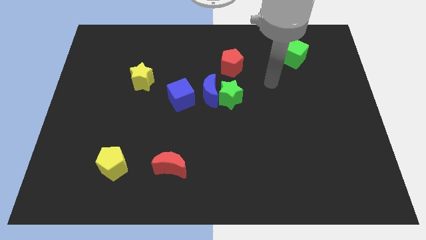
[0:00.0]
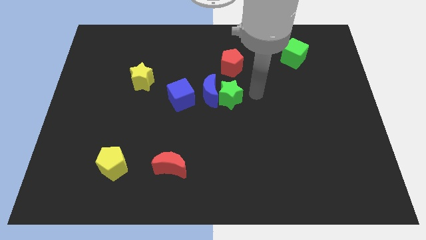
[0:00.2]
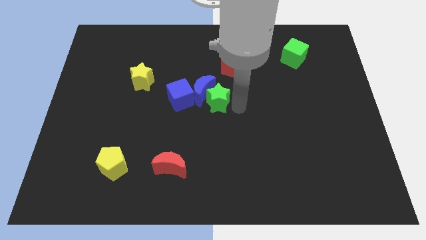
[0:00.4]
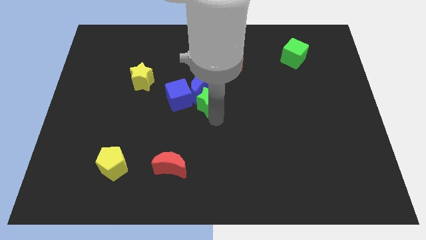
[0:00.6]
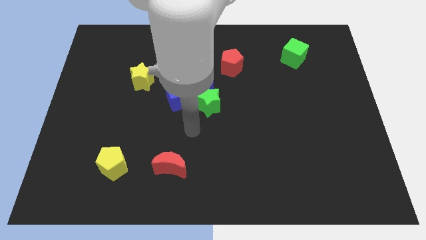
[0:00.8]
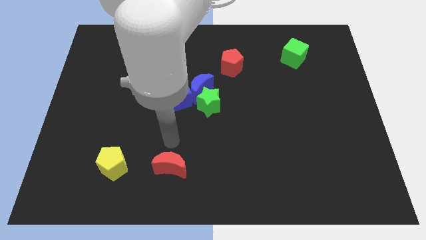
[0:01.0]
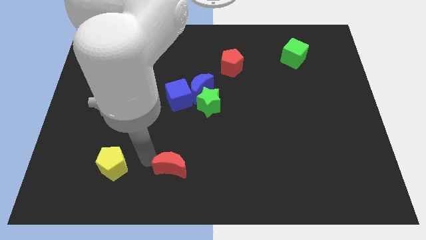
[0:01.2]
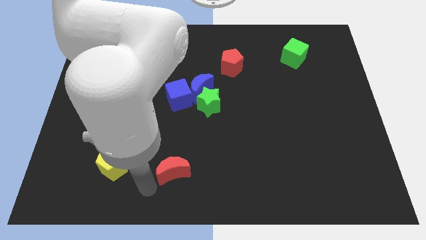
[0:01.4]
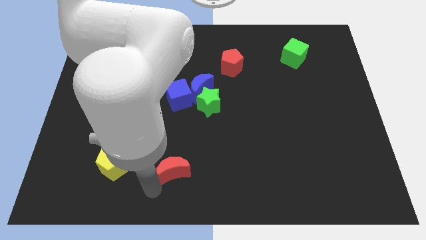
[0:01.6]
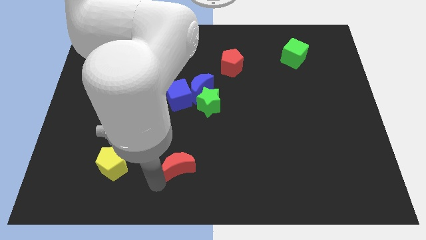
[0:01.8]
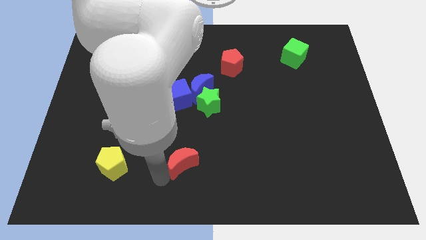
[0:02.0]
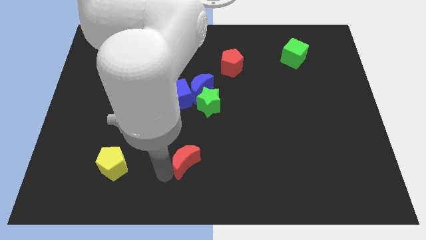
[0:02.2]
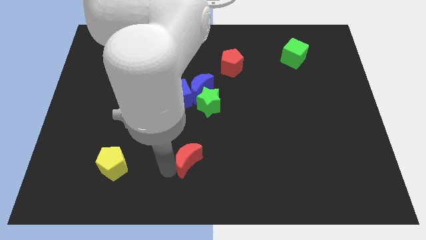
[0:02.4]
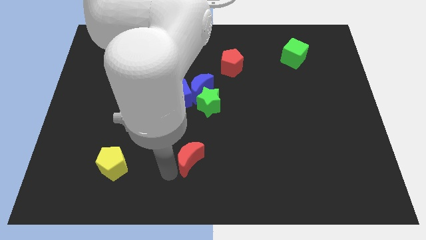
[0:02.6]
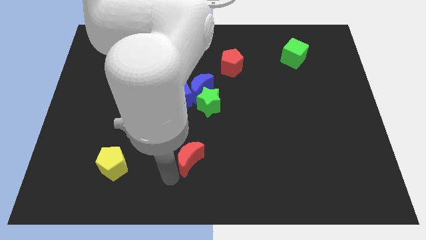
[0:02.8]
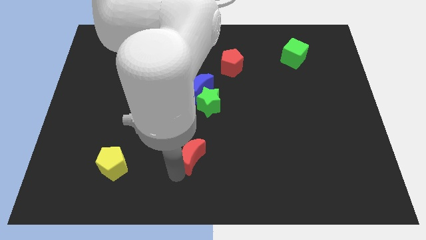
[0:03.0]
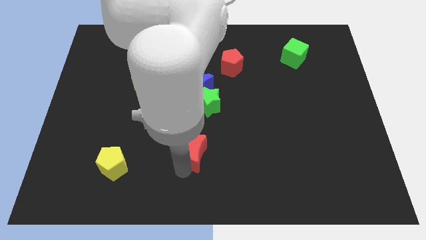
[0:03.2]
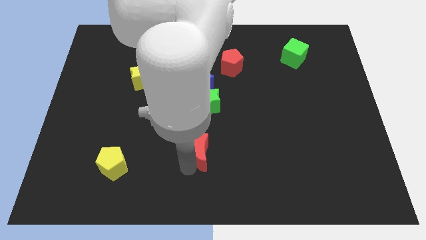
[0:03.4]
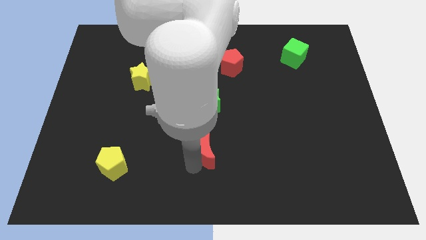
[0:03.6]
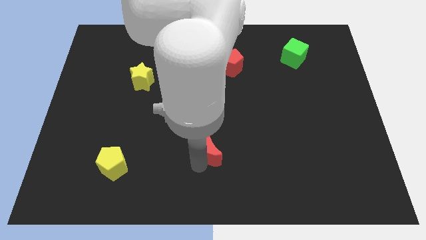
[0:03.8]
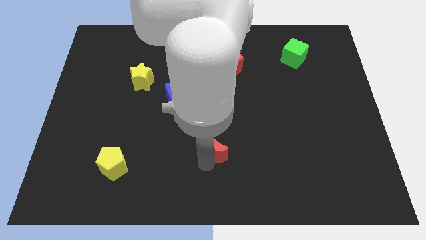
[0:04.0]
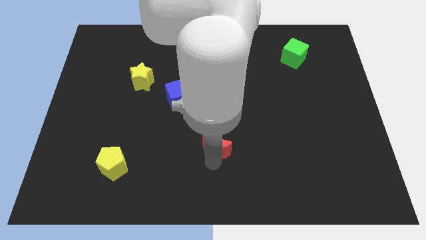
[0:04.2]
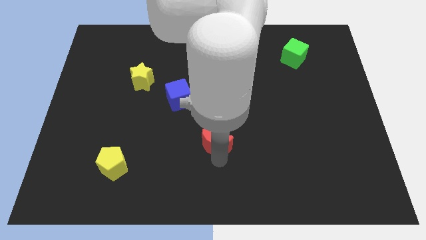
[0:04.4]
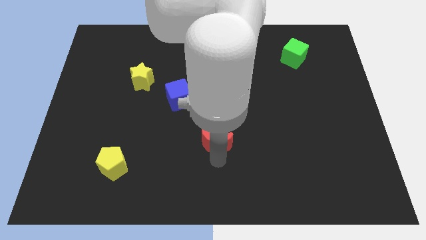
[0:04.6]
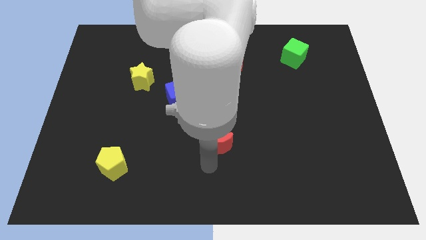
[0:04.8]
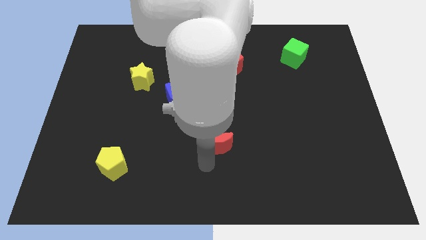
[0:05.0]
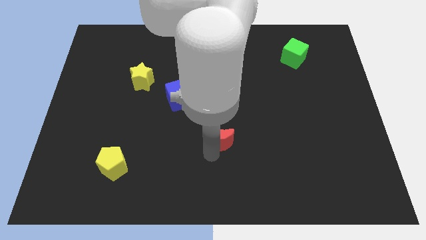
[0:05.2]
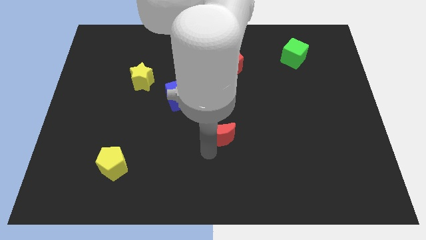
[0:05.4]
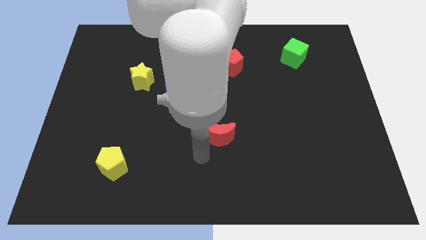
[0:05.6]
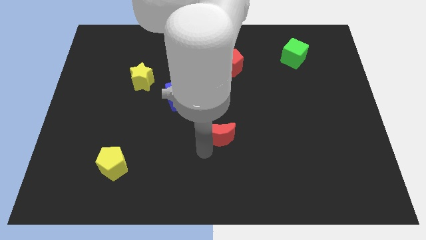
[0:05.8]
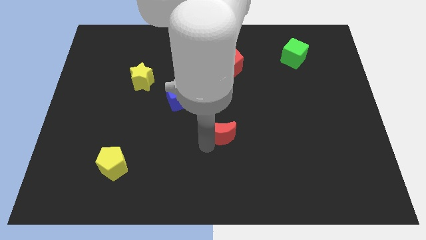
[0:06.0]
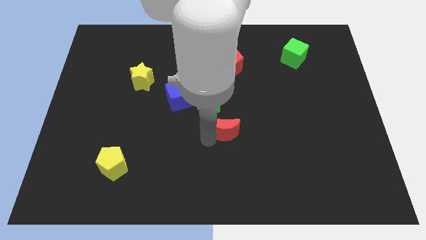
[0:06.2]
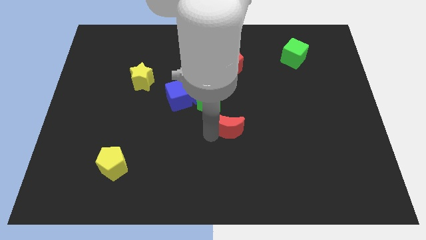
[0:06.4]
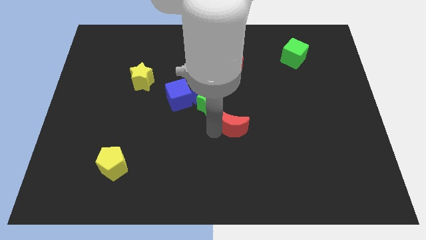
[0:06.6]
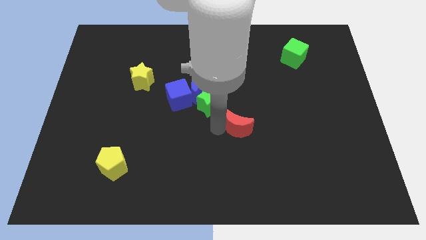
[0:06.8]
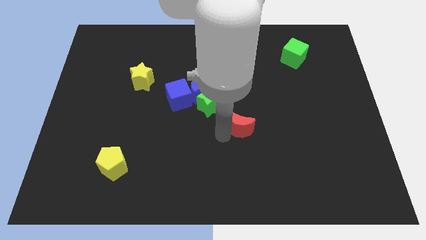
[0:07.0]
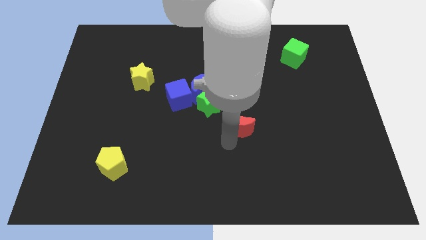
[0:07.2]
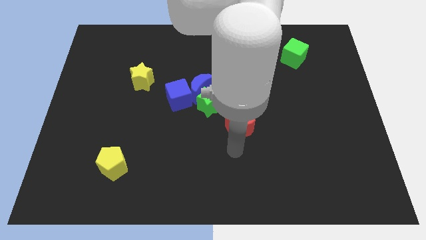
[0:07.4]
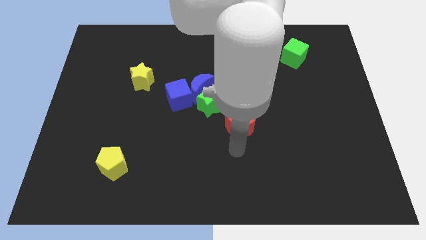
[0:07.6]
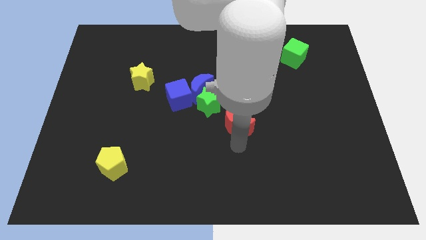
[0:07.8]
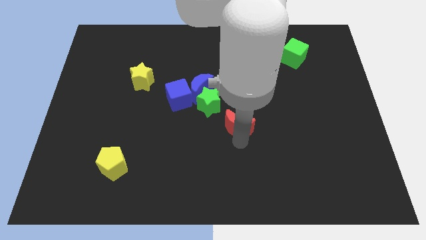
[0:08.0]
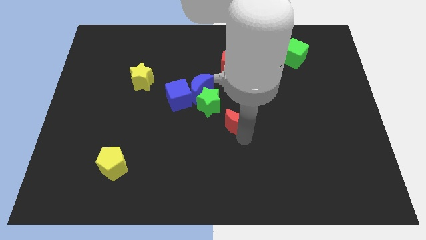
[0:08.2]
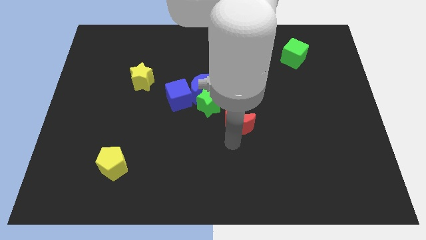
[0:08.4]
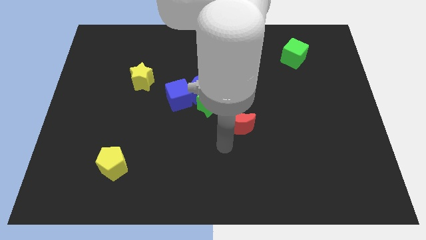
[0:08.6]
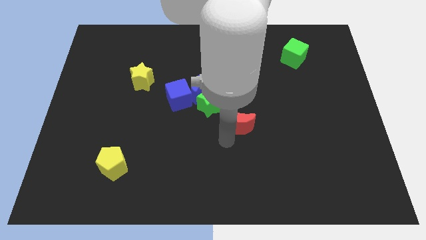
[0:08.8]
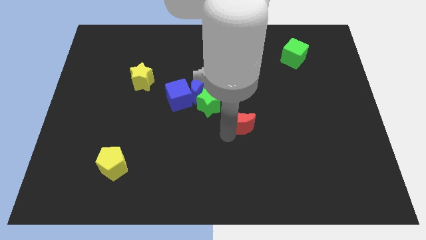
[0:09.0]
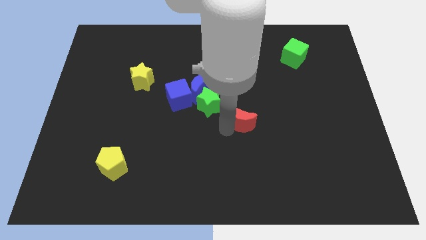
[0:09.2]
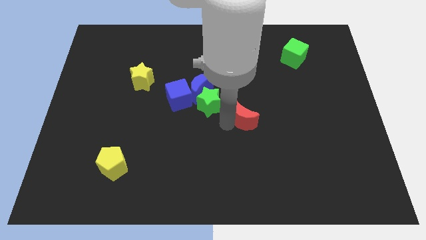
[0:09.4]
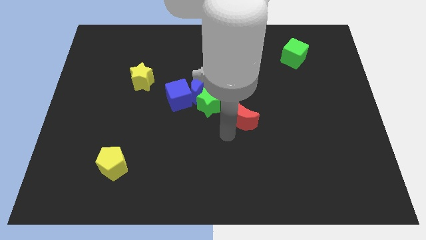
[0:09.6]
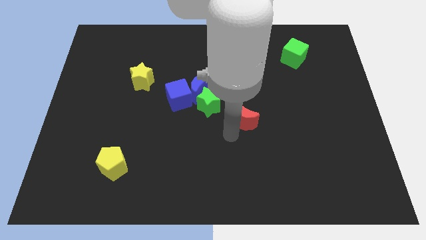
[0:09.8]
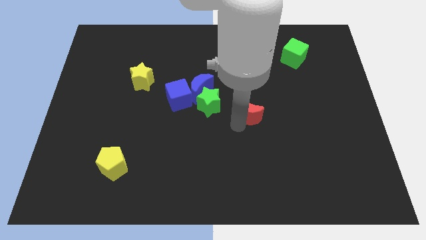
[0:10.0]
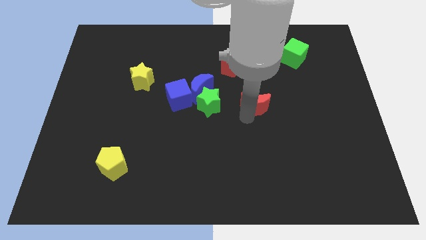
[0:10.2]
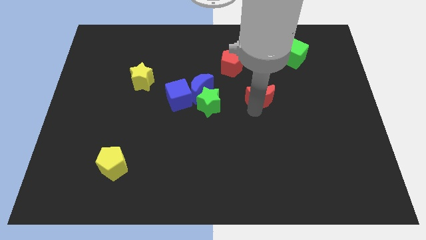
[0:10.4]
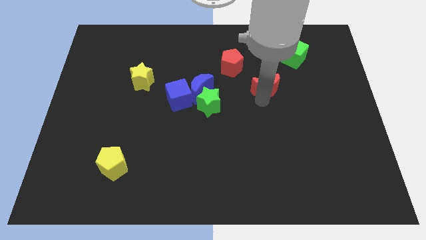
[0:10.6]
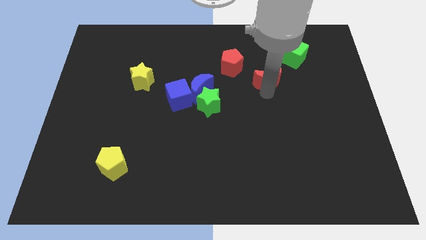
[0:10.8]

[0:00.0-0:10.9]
move the red moon to the bottom left of the green cube

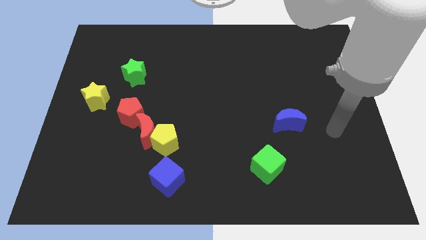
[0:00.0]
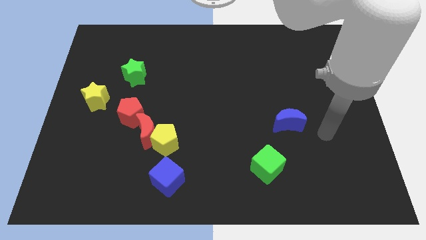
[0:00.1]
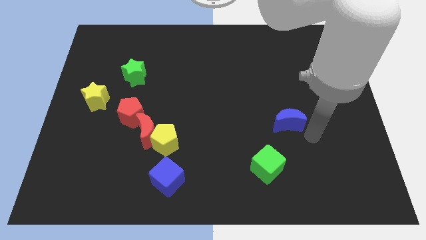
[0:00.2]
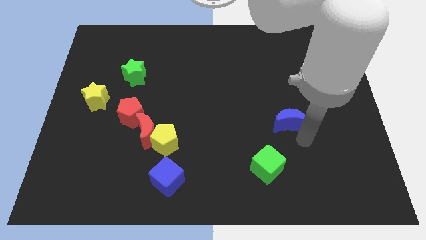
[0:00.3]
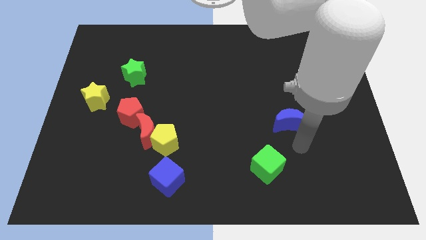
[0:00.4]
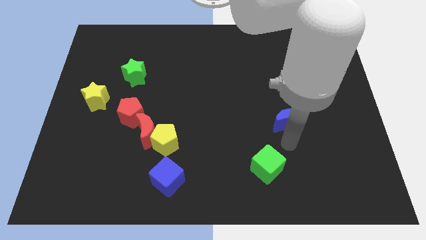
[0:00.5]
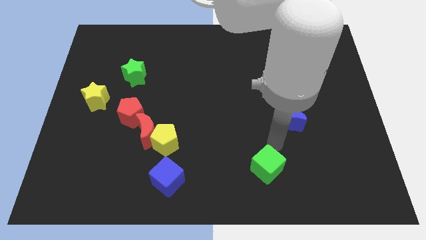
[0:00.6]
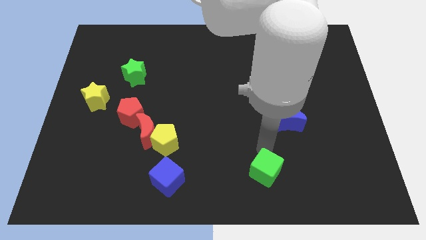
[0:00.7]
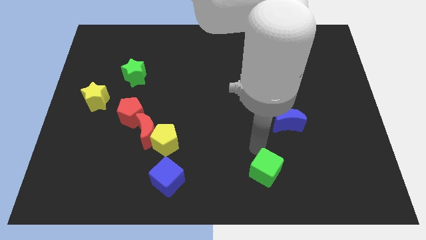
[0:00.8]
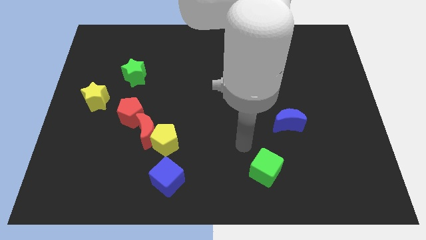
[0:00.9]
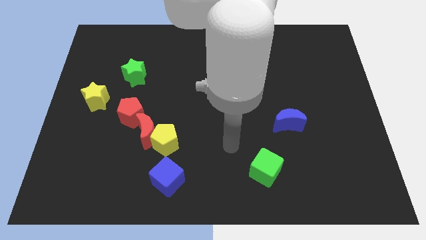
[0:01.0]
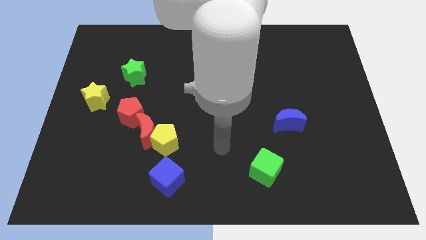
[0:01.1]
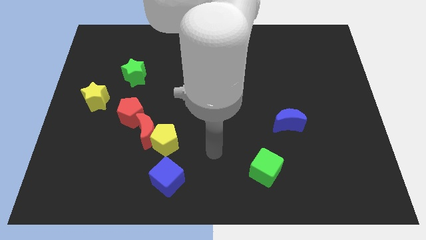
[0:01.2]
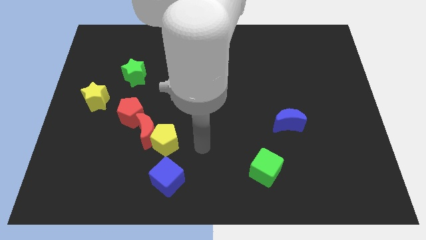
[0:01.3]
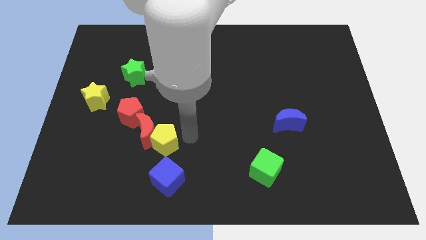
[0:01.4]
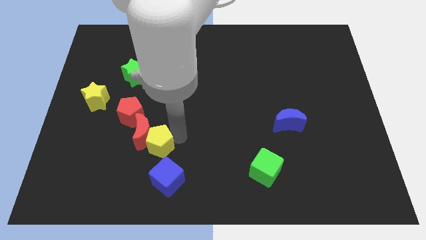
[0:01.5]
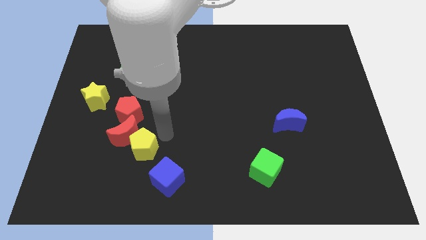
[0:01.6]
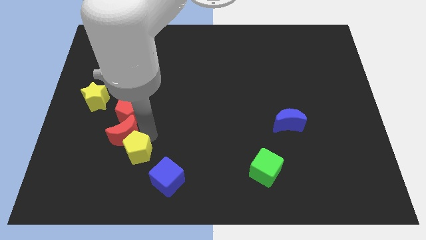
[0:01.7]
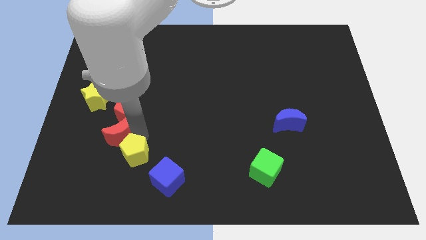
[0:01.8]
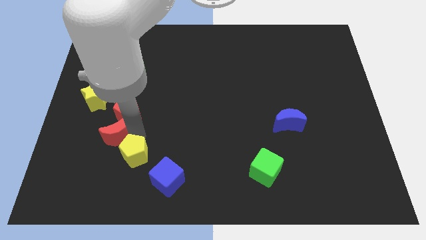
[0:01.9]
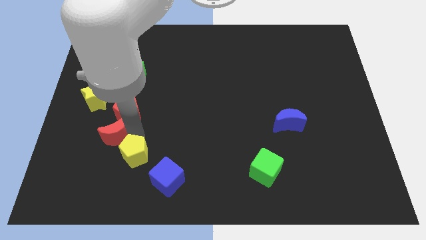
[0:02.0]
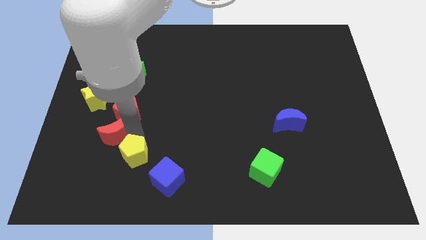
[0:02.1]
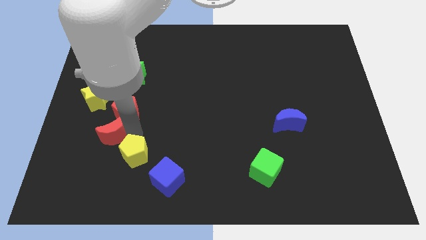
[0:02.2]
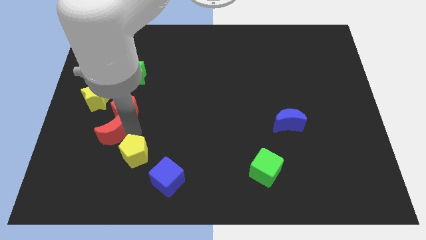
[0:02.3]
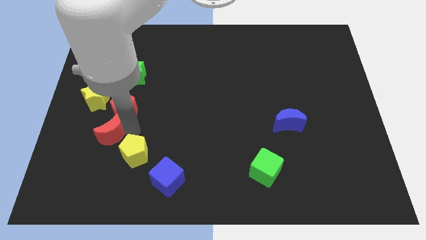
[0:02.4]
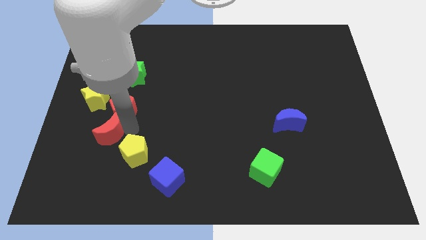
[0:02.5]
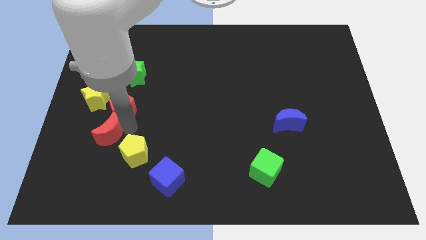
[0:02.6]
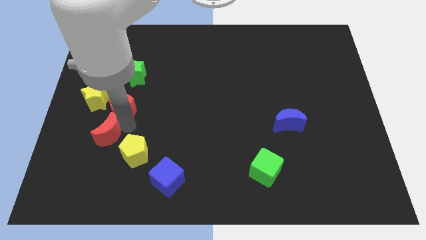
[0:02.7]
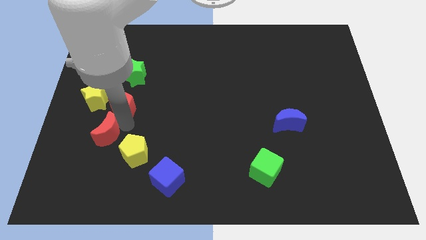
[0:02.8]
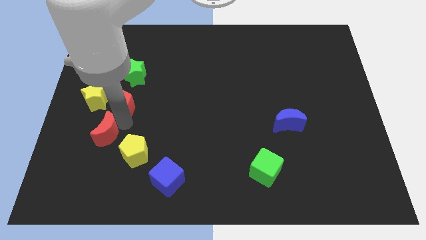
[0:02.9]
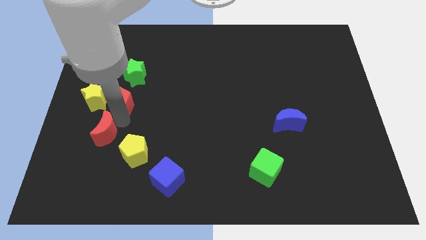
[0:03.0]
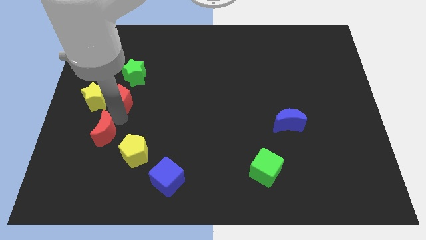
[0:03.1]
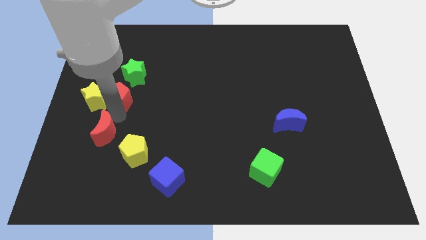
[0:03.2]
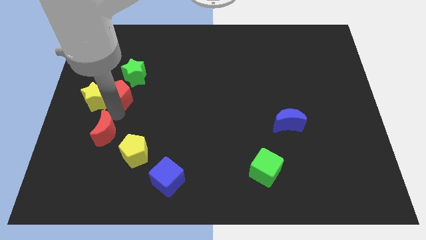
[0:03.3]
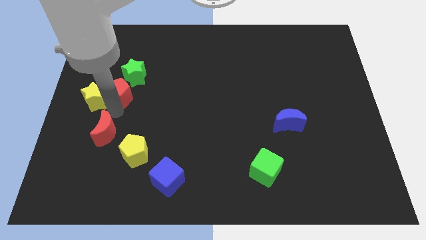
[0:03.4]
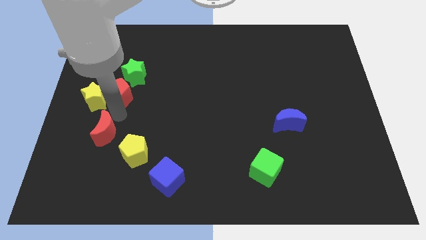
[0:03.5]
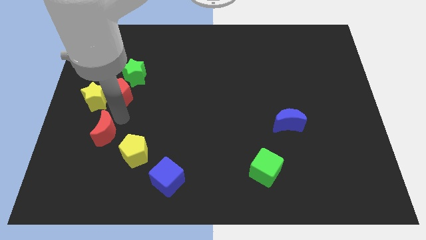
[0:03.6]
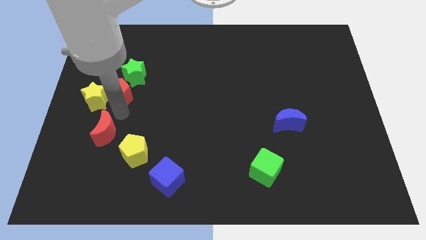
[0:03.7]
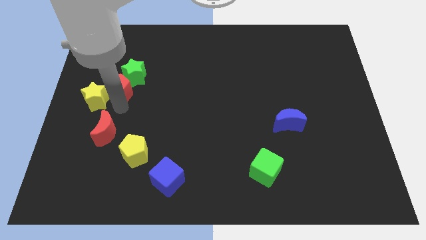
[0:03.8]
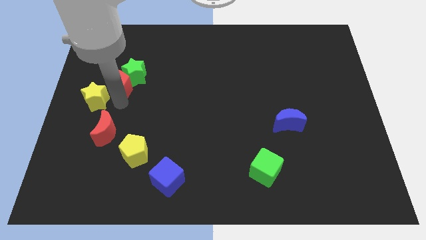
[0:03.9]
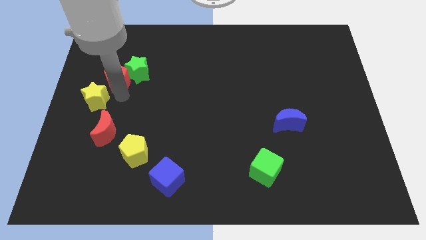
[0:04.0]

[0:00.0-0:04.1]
move the red pentagon to the top side of the yellow star
